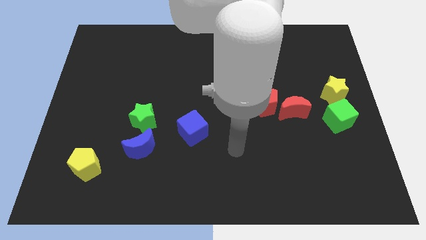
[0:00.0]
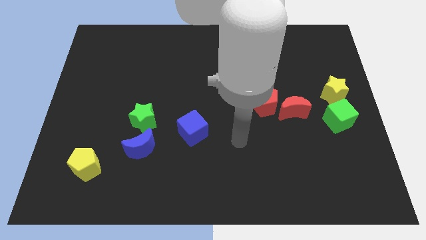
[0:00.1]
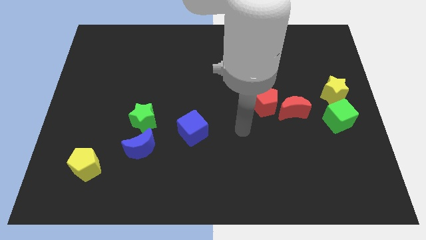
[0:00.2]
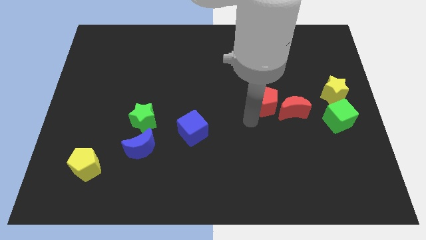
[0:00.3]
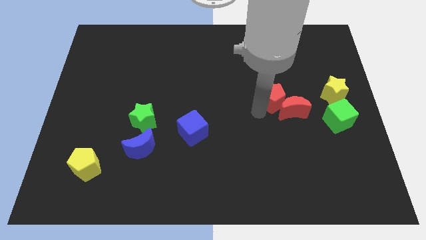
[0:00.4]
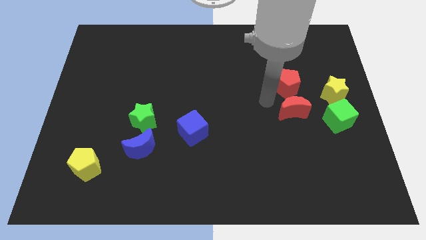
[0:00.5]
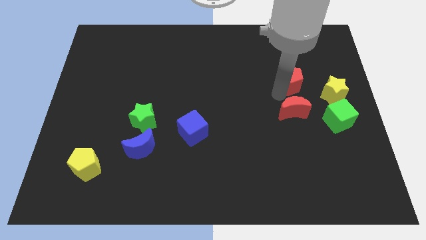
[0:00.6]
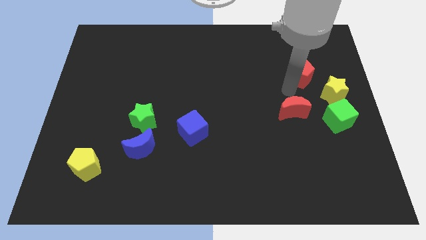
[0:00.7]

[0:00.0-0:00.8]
pull the red moon apart from the red pentagon

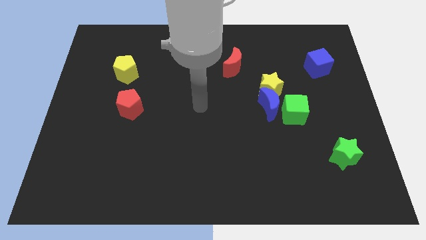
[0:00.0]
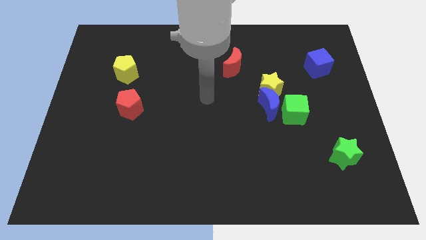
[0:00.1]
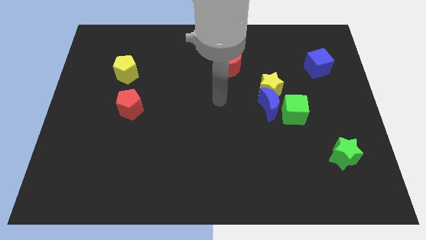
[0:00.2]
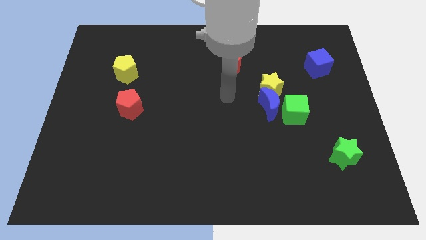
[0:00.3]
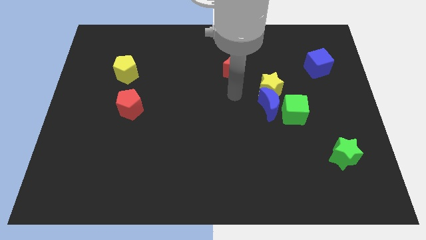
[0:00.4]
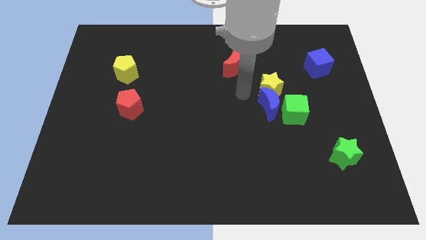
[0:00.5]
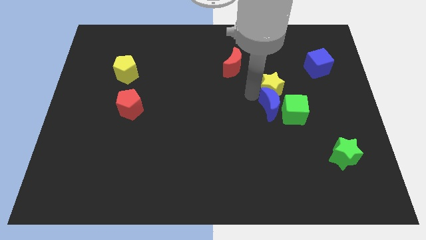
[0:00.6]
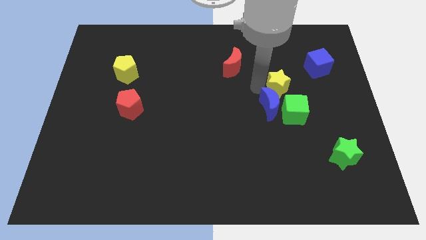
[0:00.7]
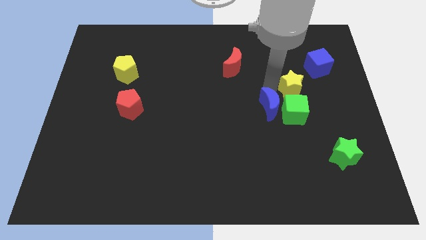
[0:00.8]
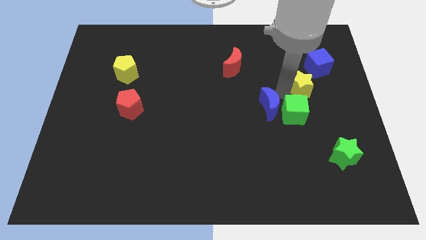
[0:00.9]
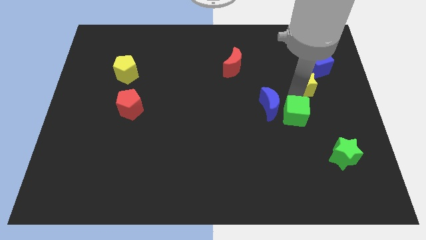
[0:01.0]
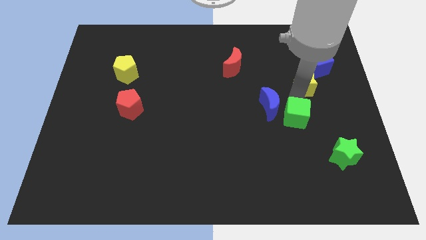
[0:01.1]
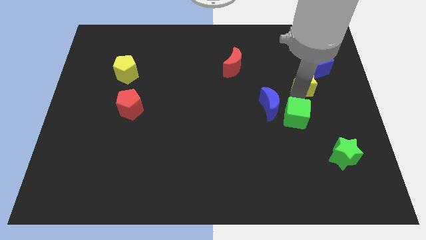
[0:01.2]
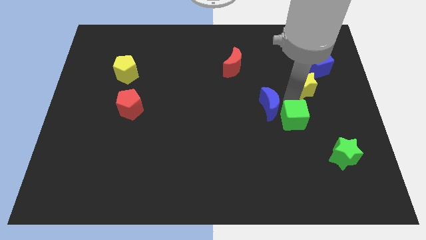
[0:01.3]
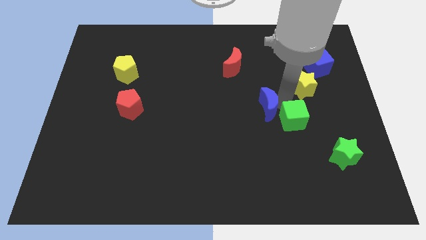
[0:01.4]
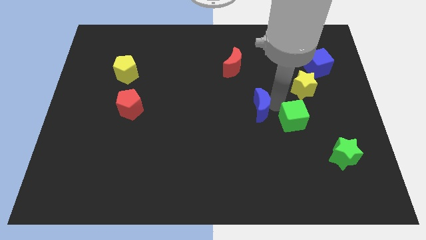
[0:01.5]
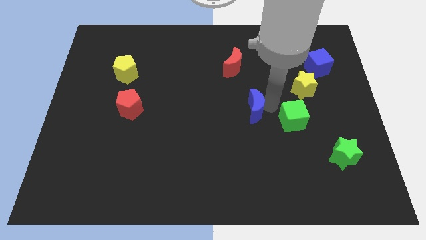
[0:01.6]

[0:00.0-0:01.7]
move the blue moon away from the yellow star and green cube

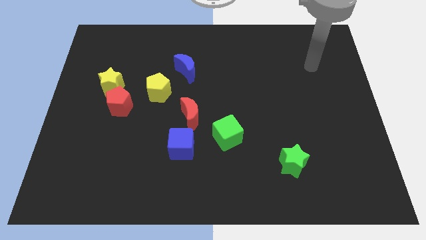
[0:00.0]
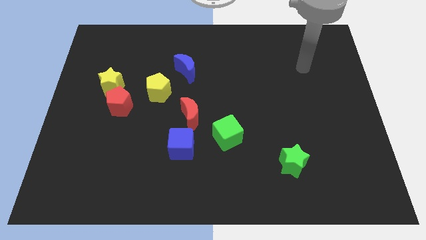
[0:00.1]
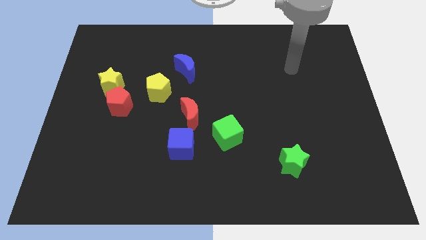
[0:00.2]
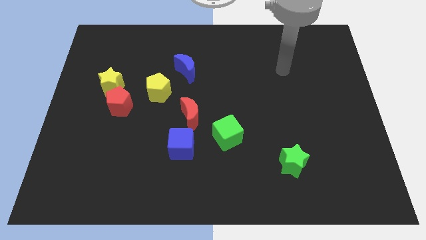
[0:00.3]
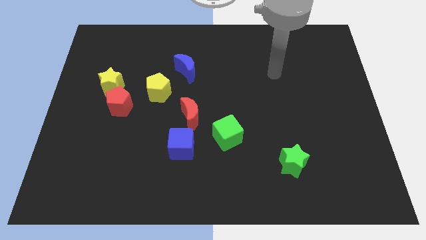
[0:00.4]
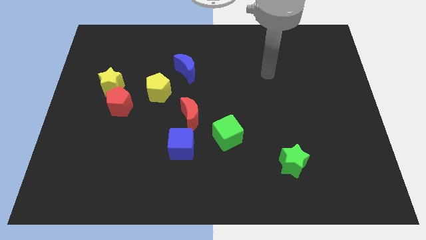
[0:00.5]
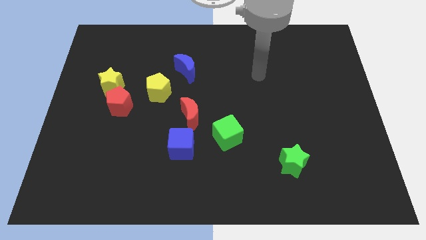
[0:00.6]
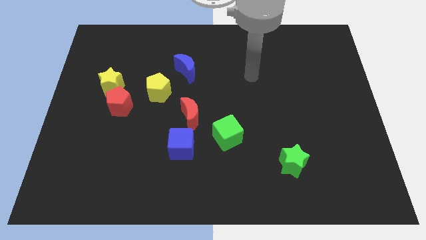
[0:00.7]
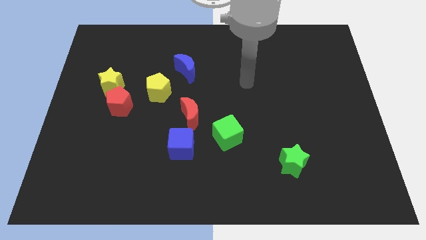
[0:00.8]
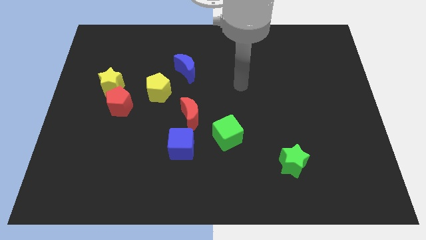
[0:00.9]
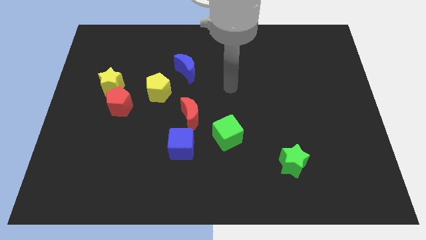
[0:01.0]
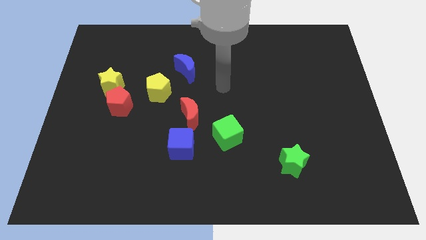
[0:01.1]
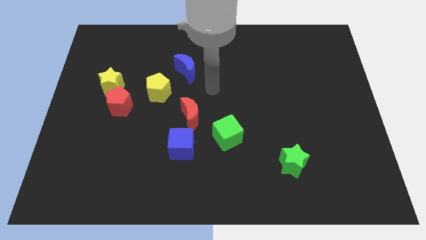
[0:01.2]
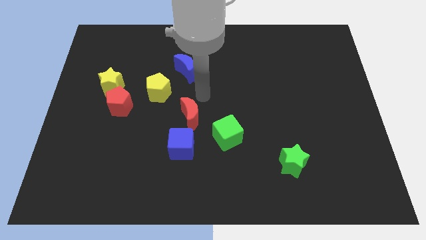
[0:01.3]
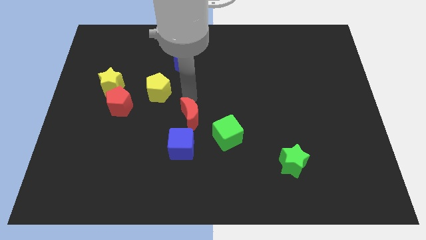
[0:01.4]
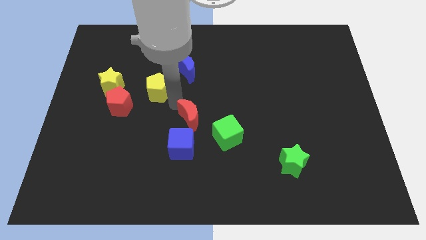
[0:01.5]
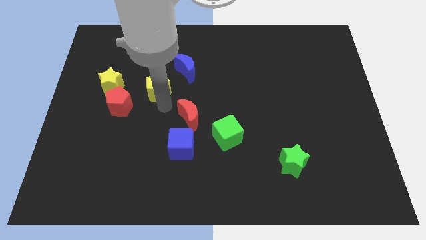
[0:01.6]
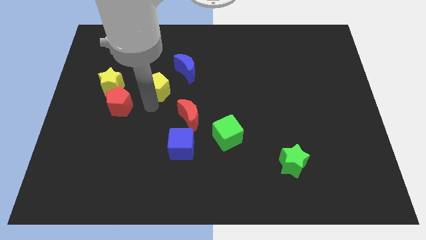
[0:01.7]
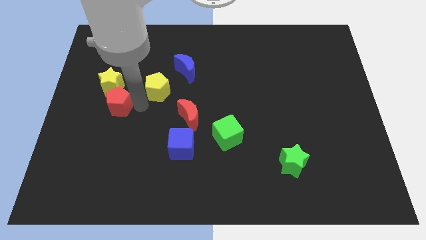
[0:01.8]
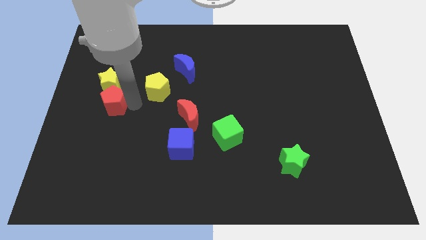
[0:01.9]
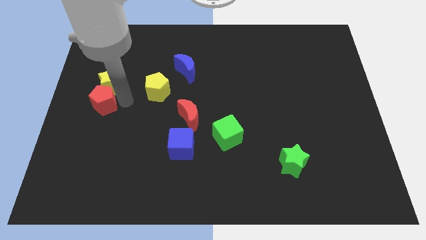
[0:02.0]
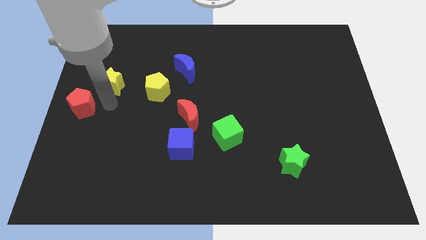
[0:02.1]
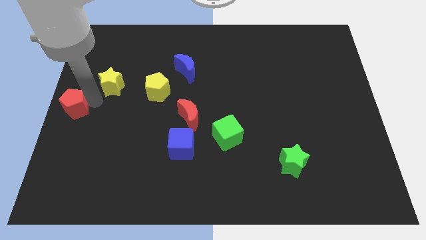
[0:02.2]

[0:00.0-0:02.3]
pull the yellow star apart from the red pentagon

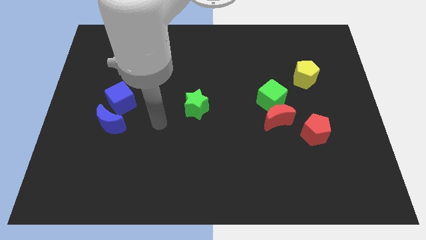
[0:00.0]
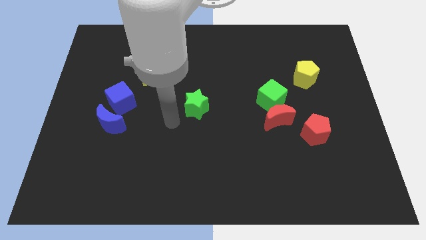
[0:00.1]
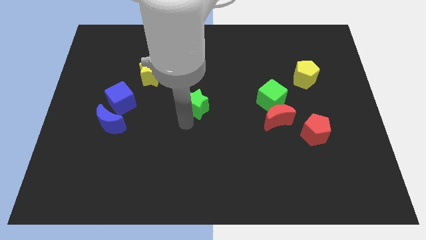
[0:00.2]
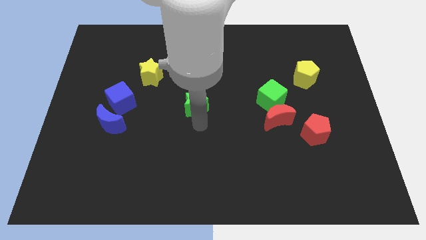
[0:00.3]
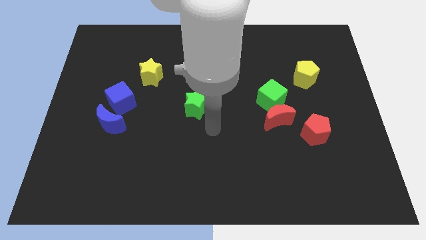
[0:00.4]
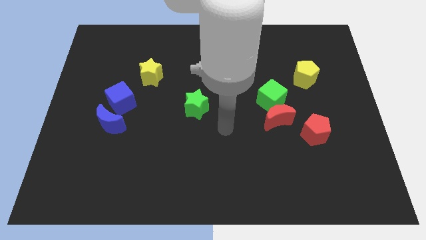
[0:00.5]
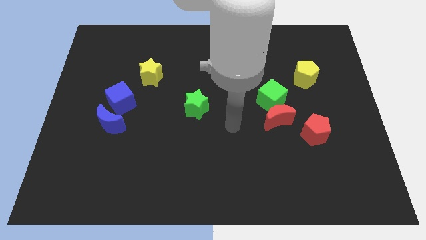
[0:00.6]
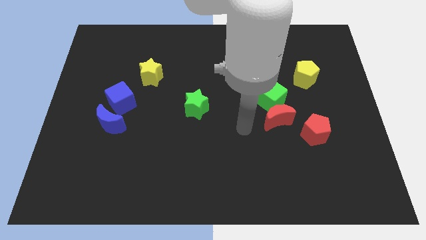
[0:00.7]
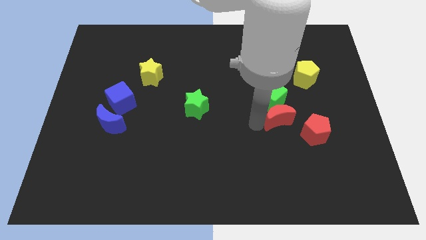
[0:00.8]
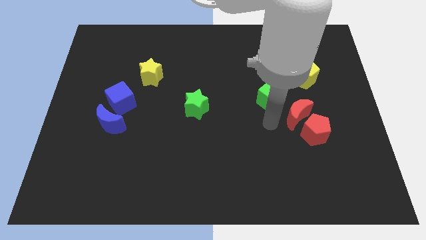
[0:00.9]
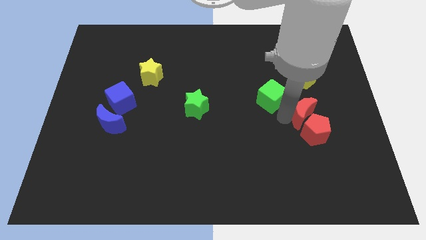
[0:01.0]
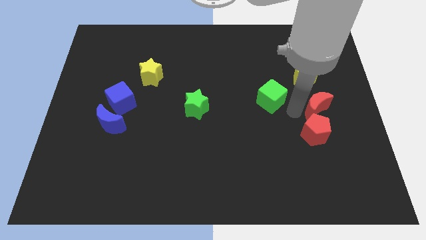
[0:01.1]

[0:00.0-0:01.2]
pull the green cube apart from the red moon

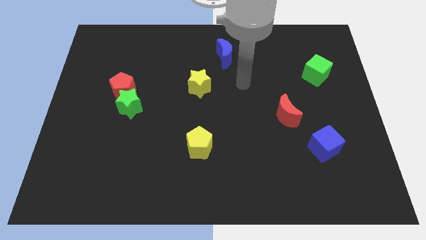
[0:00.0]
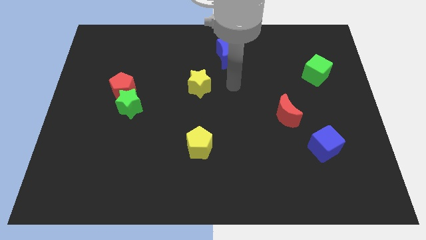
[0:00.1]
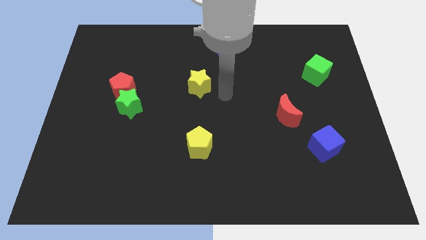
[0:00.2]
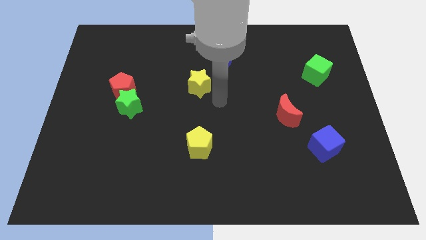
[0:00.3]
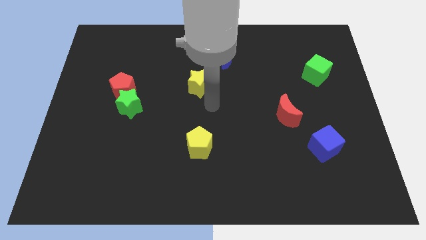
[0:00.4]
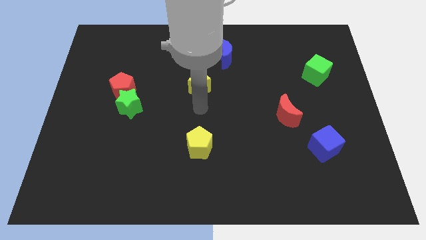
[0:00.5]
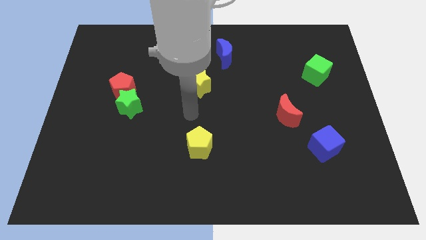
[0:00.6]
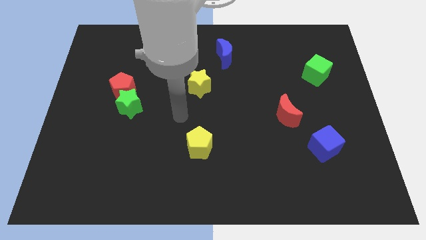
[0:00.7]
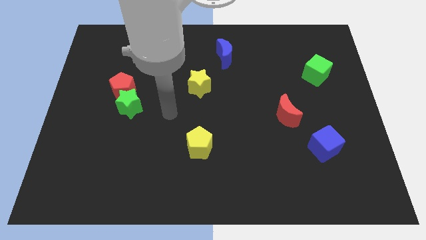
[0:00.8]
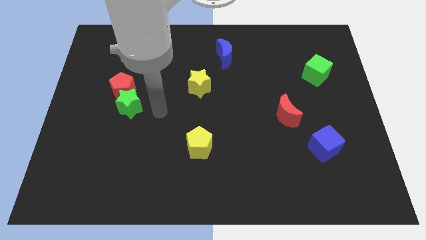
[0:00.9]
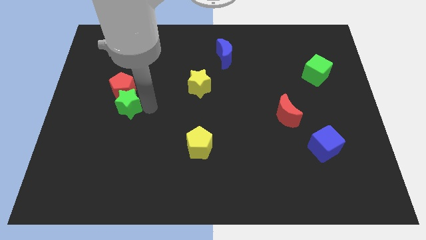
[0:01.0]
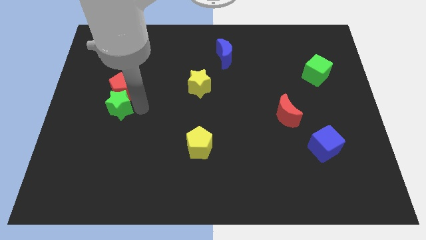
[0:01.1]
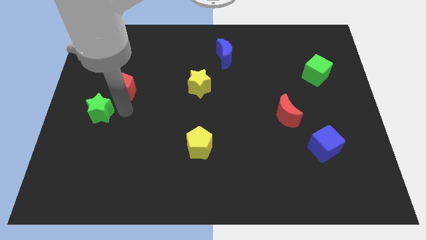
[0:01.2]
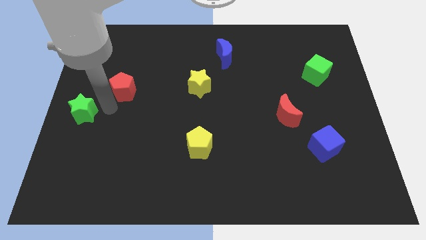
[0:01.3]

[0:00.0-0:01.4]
separate the red pentagon from the green star

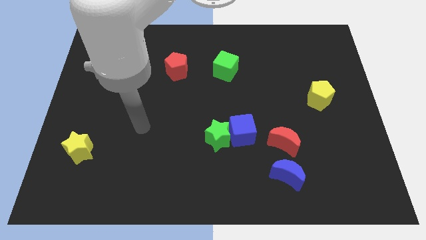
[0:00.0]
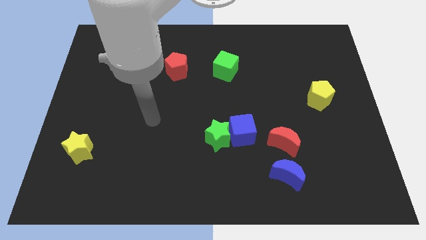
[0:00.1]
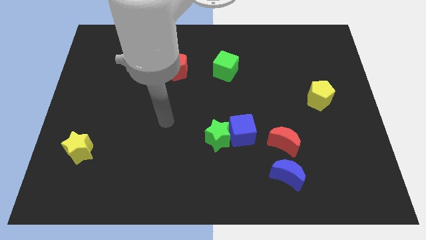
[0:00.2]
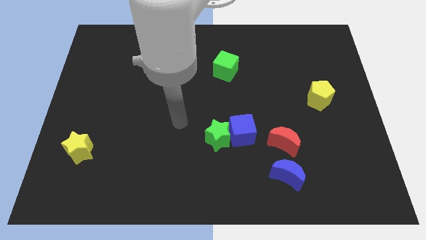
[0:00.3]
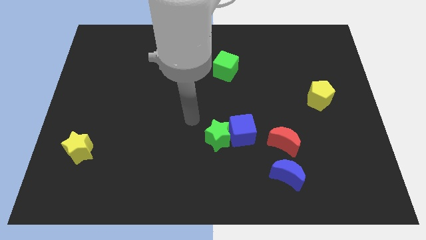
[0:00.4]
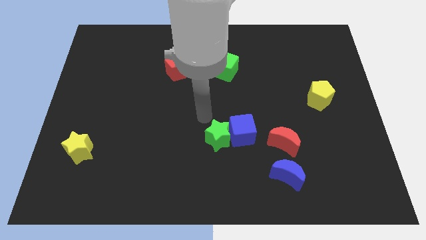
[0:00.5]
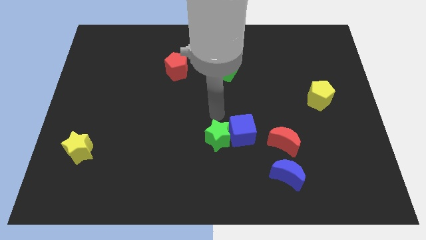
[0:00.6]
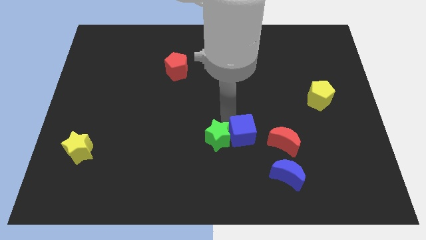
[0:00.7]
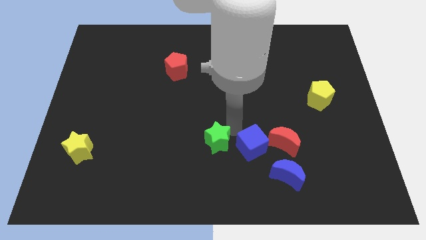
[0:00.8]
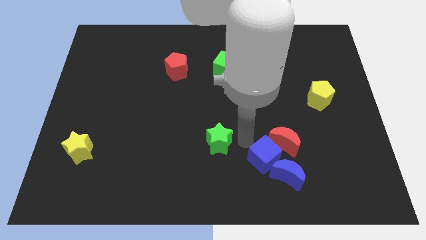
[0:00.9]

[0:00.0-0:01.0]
move the green star away from the blue cube

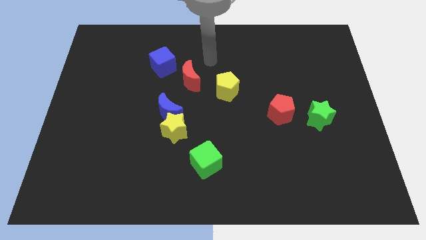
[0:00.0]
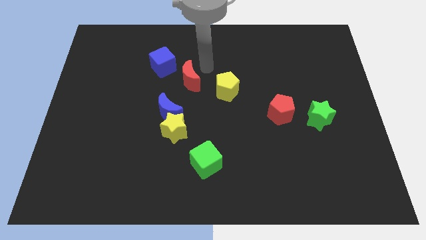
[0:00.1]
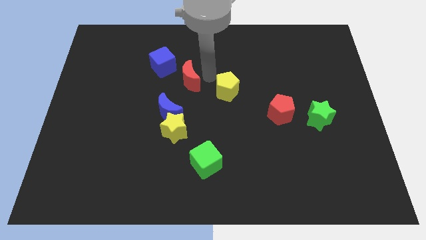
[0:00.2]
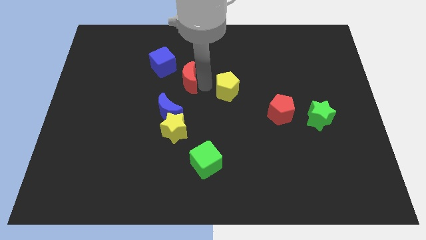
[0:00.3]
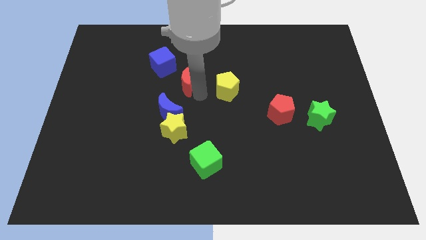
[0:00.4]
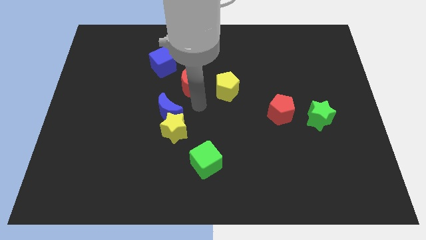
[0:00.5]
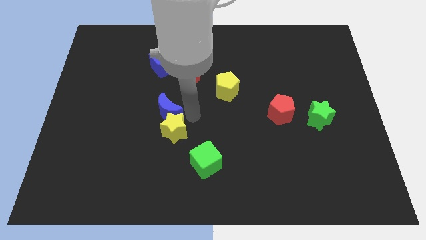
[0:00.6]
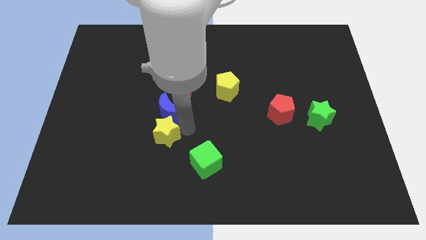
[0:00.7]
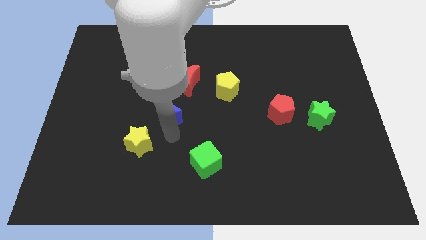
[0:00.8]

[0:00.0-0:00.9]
pull the blue moon apart from the yellow star
